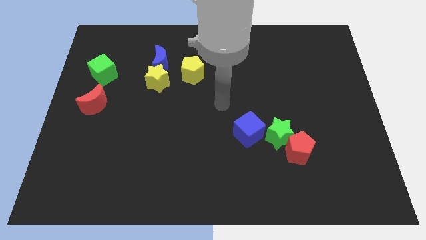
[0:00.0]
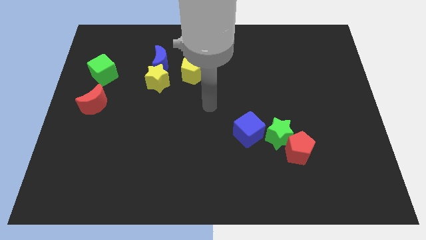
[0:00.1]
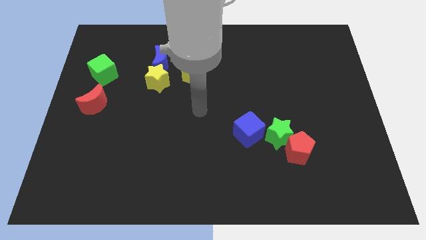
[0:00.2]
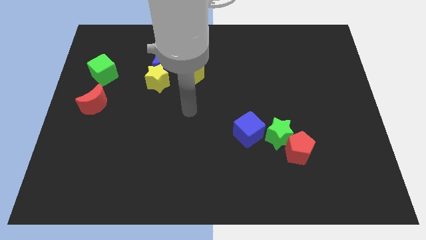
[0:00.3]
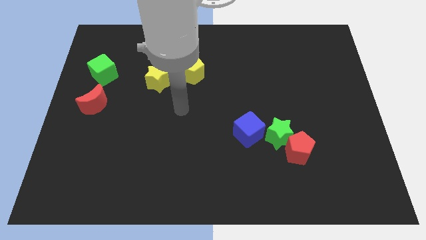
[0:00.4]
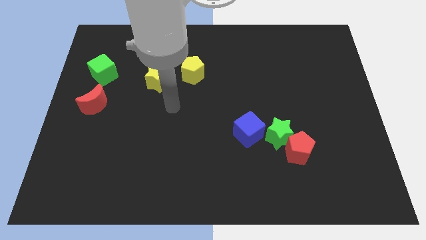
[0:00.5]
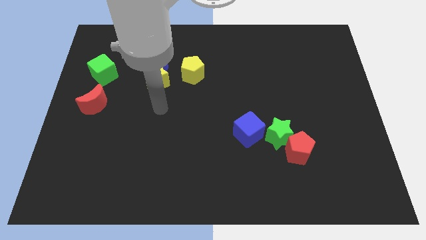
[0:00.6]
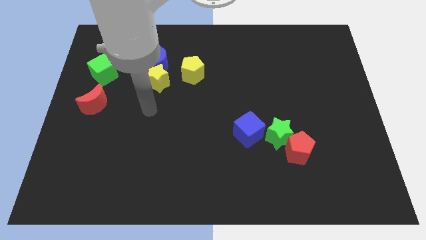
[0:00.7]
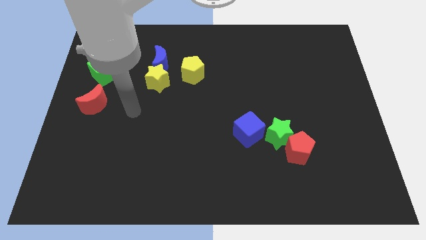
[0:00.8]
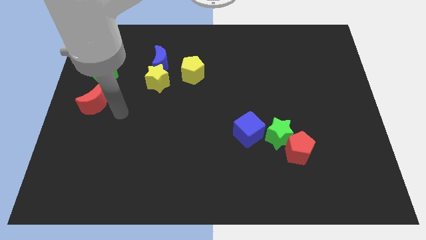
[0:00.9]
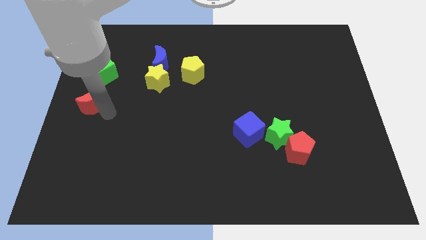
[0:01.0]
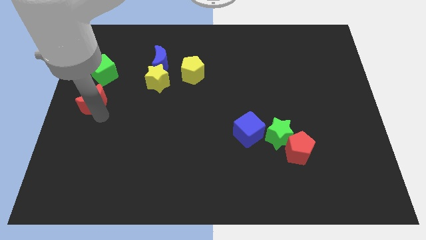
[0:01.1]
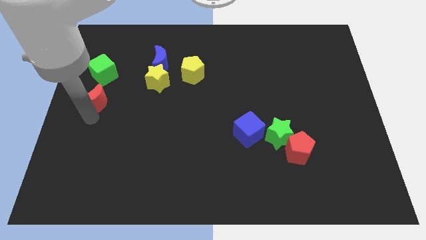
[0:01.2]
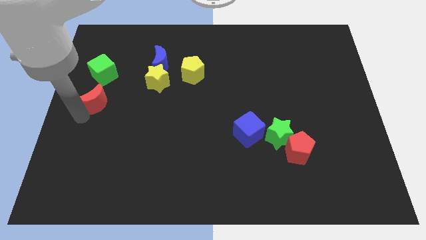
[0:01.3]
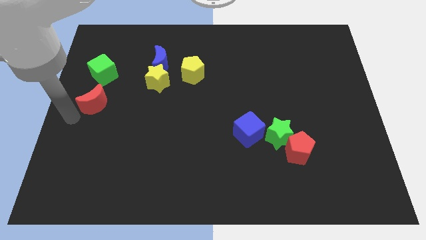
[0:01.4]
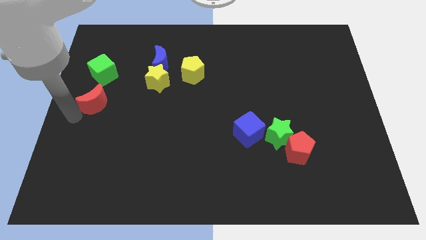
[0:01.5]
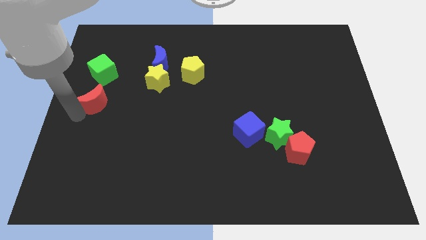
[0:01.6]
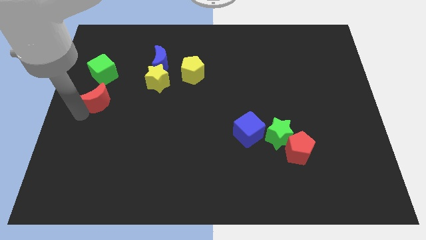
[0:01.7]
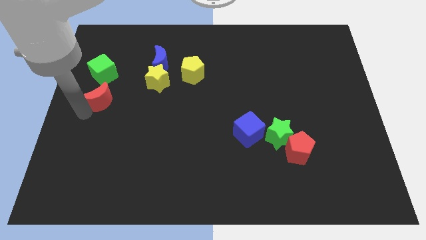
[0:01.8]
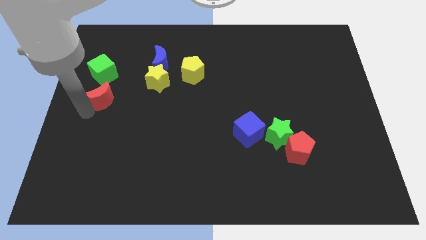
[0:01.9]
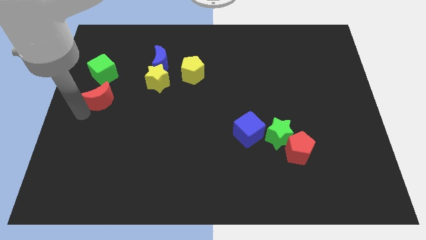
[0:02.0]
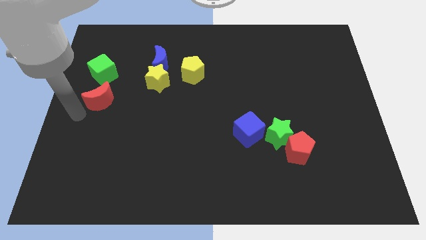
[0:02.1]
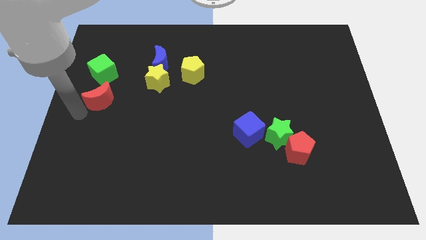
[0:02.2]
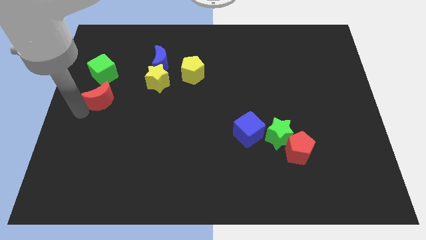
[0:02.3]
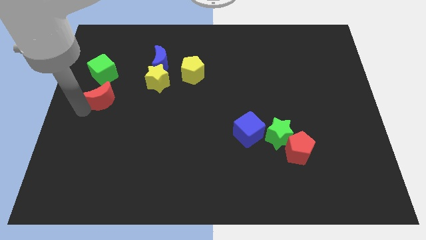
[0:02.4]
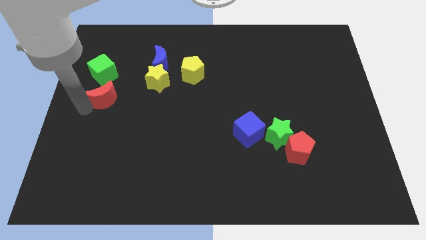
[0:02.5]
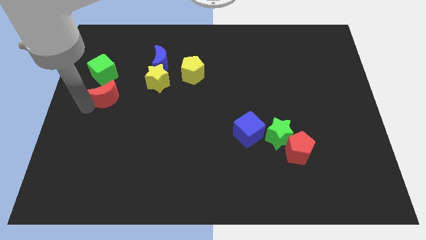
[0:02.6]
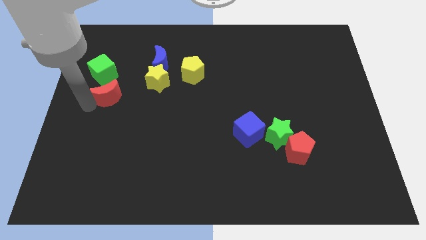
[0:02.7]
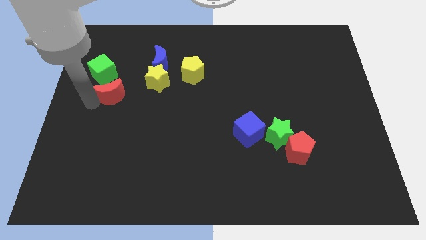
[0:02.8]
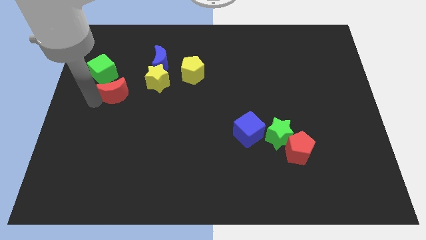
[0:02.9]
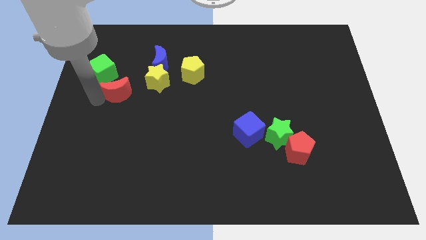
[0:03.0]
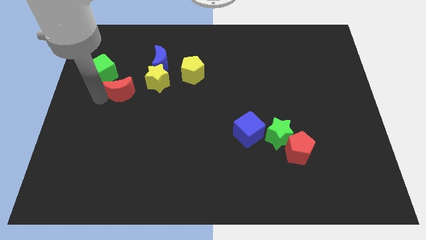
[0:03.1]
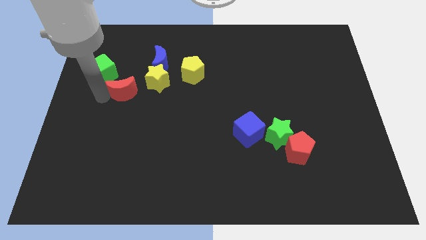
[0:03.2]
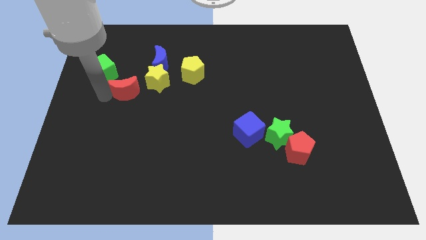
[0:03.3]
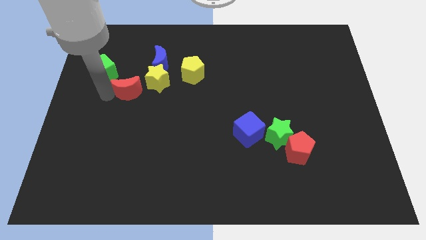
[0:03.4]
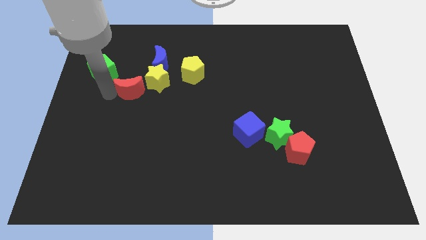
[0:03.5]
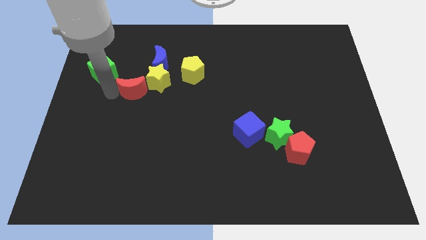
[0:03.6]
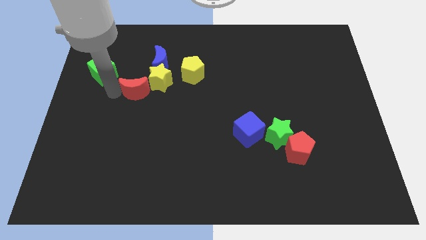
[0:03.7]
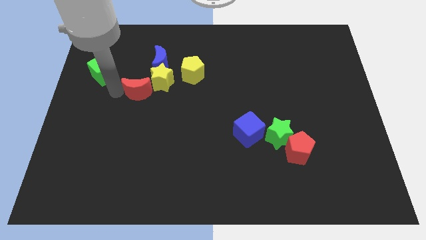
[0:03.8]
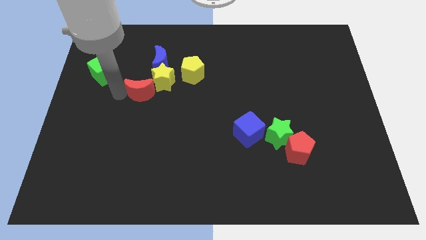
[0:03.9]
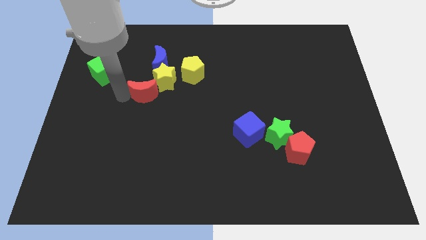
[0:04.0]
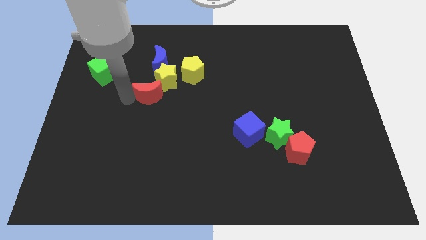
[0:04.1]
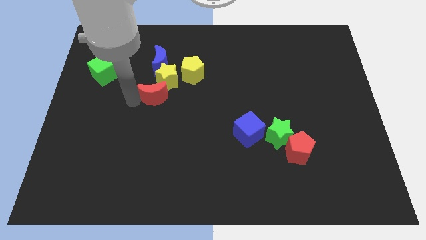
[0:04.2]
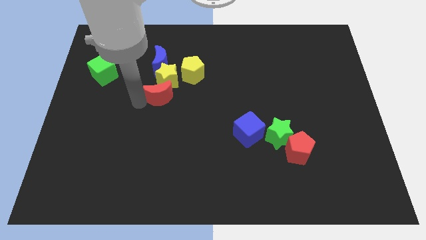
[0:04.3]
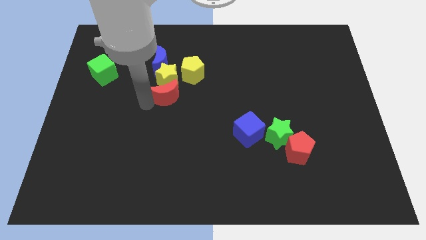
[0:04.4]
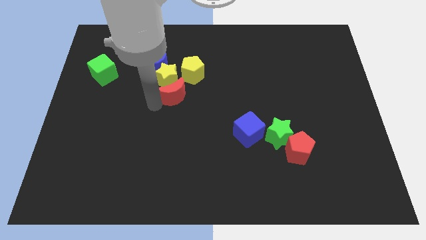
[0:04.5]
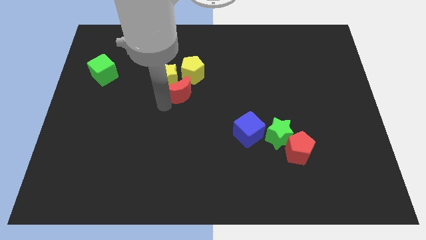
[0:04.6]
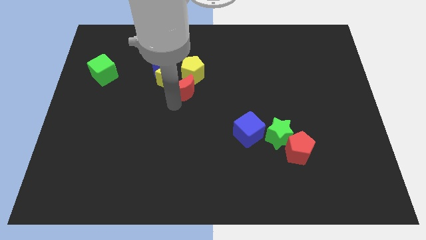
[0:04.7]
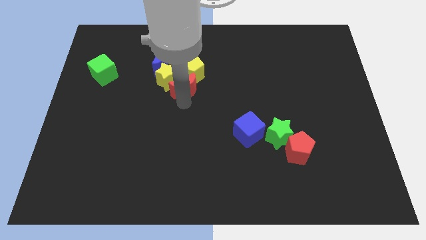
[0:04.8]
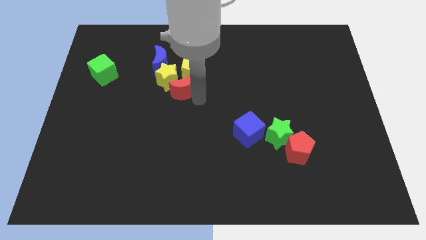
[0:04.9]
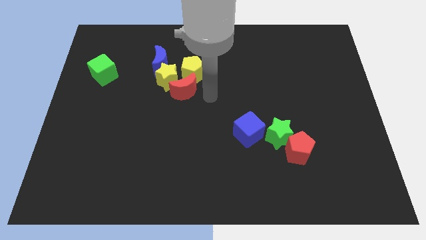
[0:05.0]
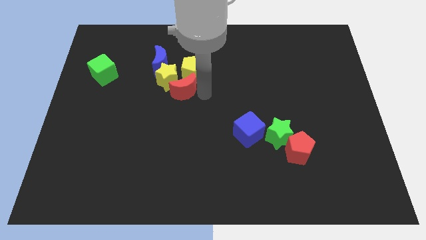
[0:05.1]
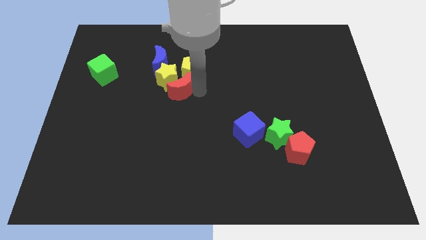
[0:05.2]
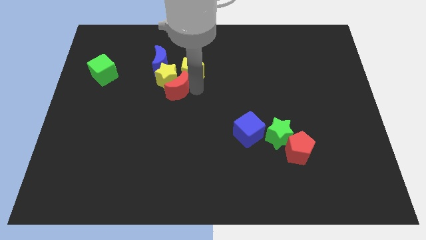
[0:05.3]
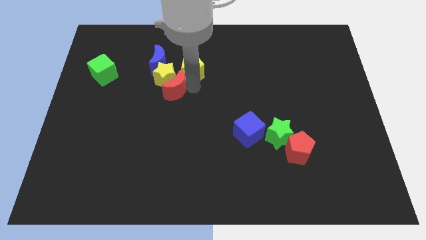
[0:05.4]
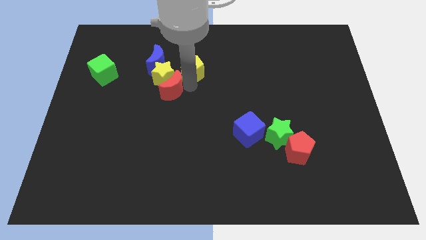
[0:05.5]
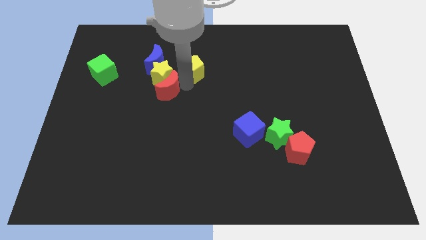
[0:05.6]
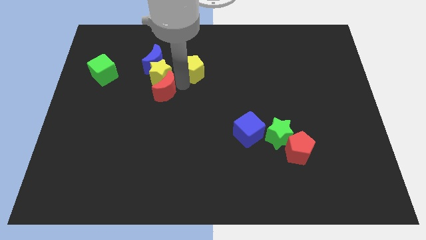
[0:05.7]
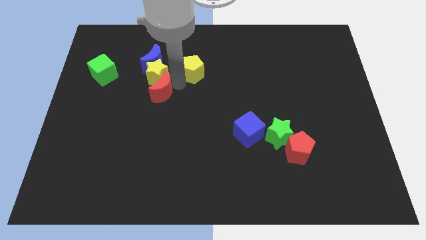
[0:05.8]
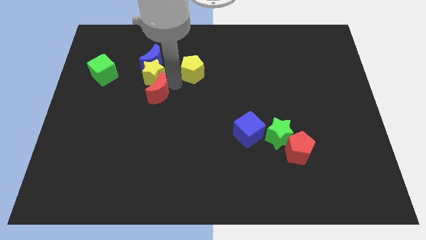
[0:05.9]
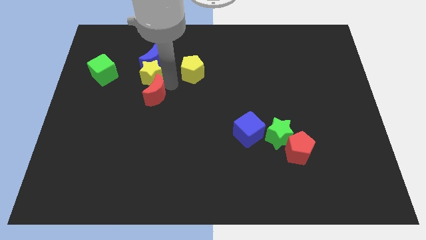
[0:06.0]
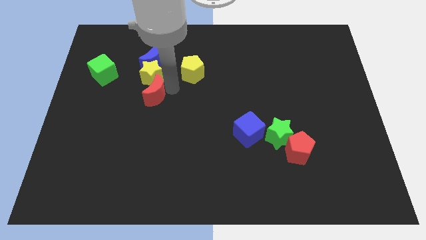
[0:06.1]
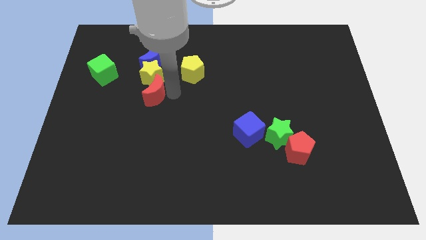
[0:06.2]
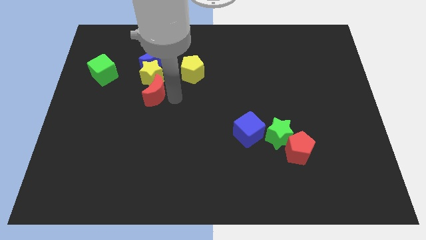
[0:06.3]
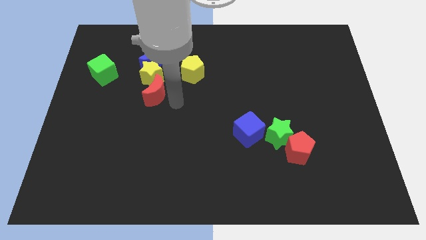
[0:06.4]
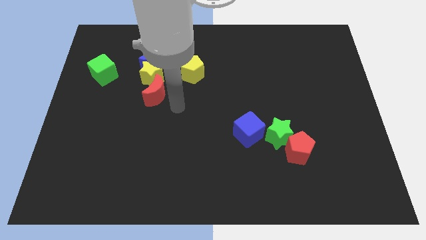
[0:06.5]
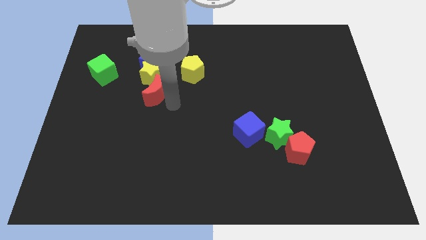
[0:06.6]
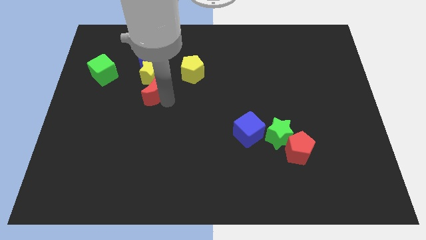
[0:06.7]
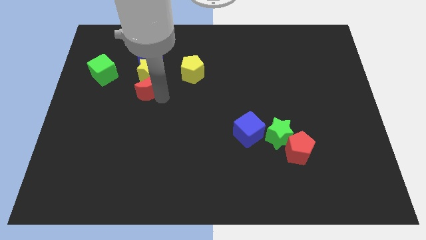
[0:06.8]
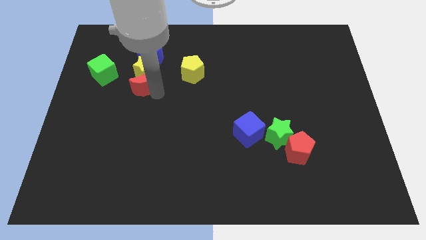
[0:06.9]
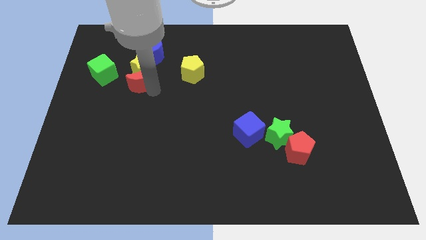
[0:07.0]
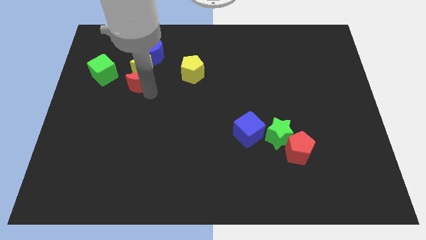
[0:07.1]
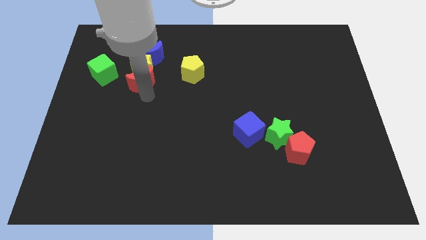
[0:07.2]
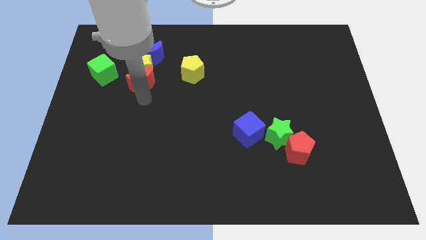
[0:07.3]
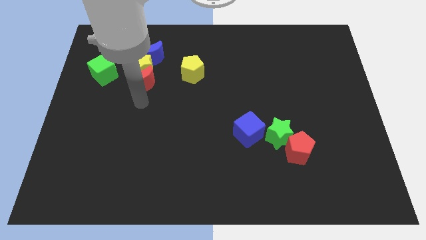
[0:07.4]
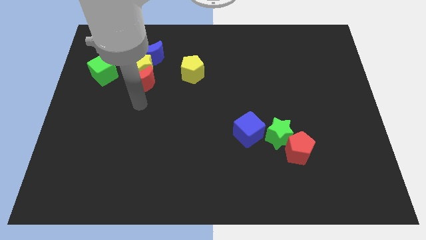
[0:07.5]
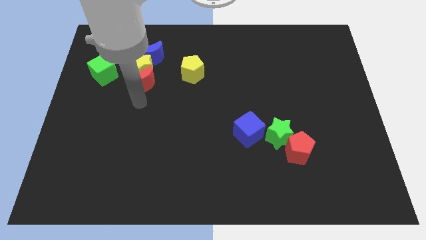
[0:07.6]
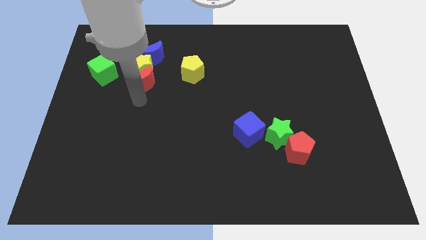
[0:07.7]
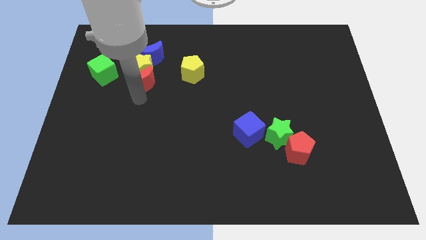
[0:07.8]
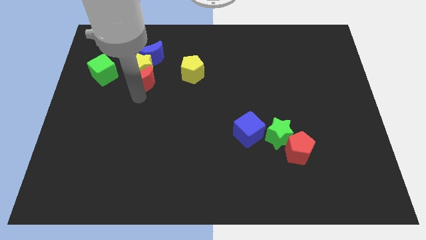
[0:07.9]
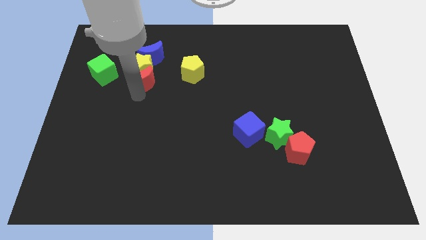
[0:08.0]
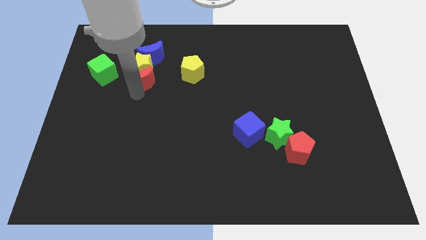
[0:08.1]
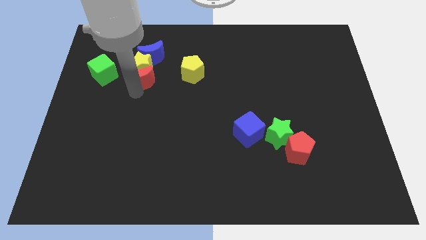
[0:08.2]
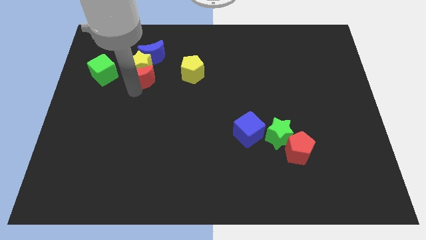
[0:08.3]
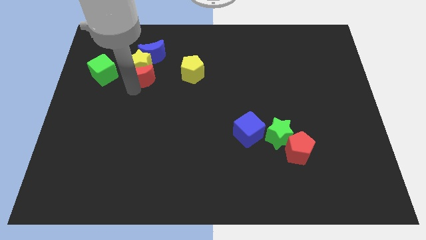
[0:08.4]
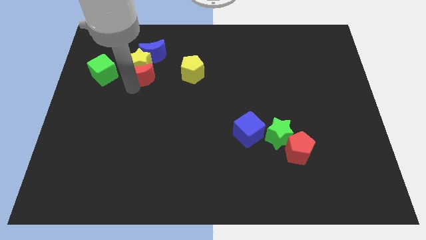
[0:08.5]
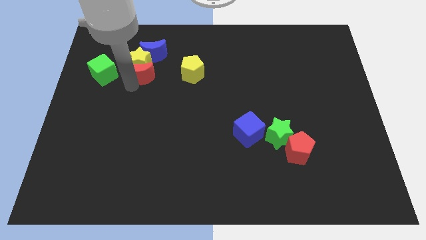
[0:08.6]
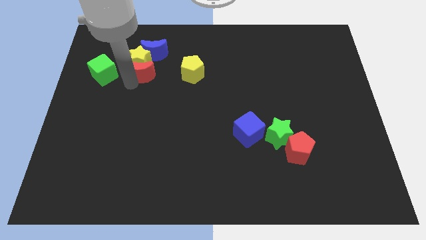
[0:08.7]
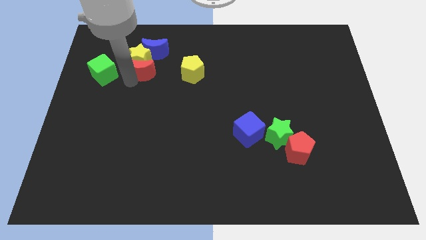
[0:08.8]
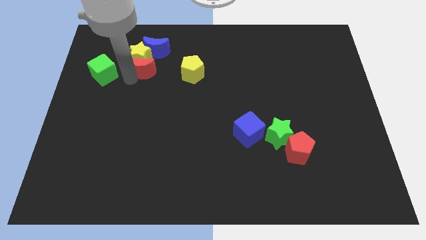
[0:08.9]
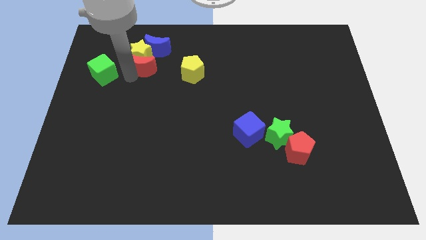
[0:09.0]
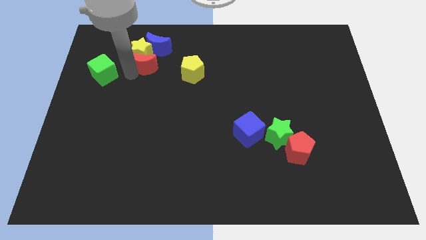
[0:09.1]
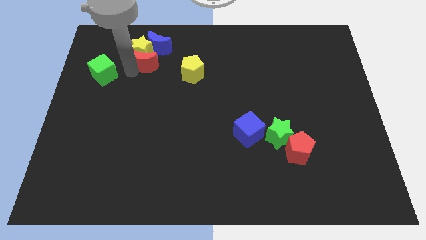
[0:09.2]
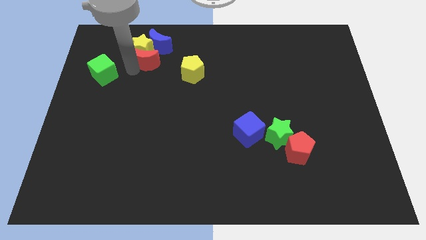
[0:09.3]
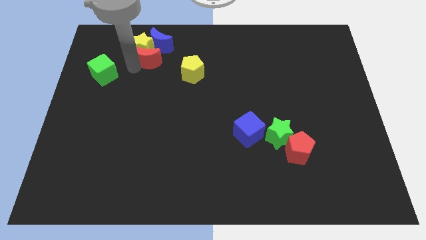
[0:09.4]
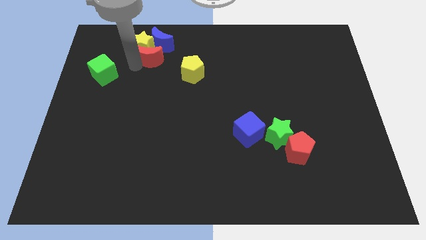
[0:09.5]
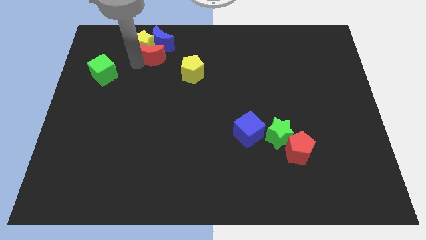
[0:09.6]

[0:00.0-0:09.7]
move the red moon to the blue moon
